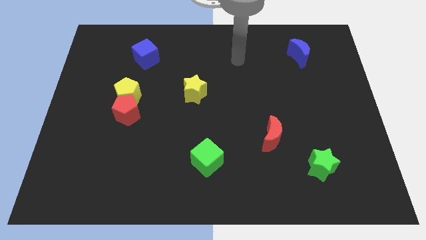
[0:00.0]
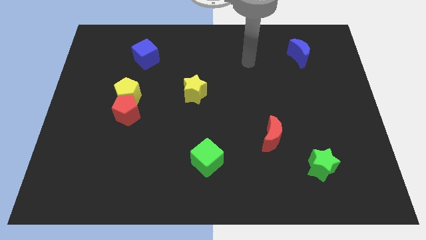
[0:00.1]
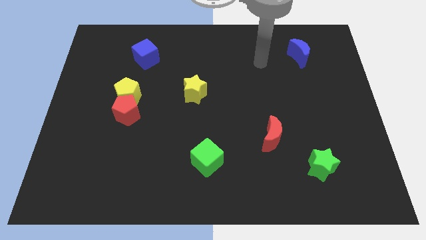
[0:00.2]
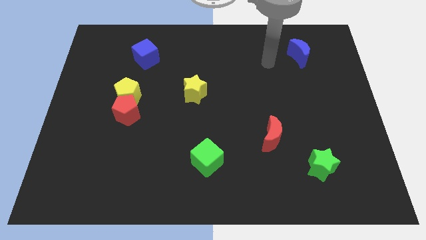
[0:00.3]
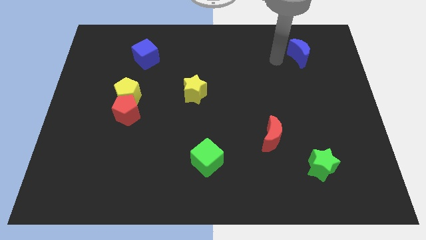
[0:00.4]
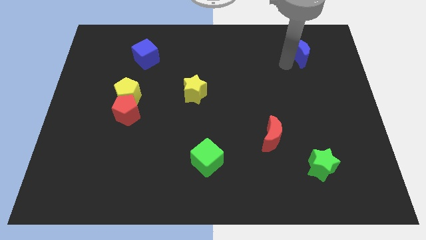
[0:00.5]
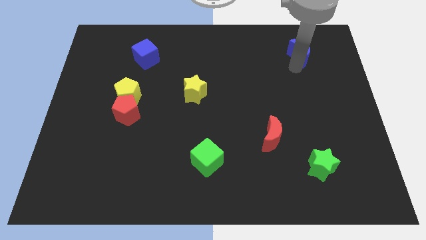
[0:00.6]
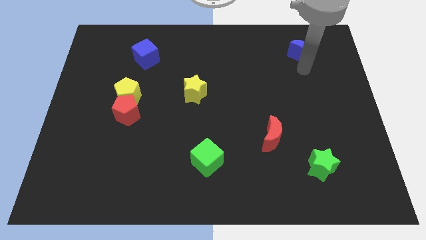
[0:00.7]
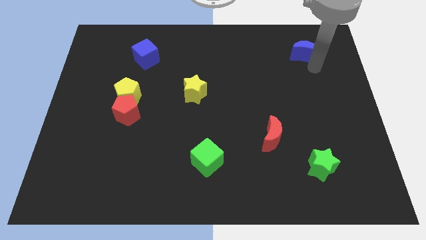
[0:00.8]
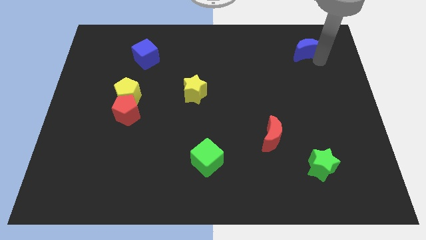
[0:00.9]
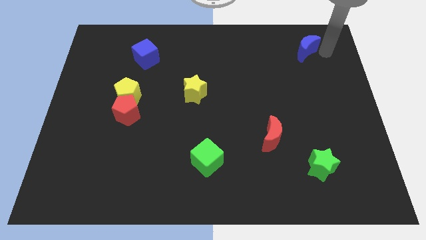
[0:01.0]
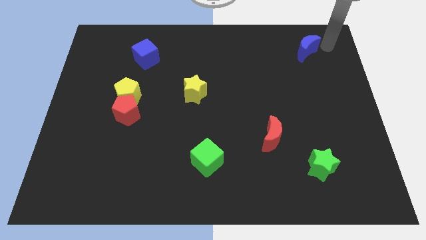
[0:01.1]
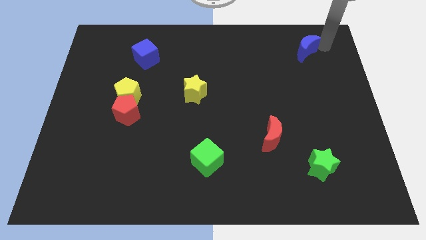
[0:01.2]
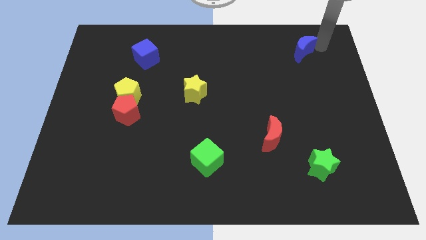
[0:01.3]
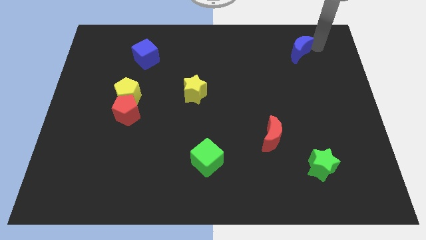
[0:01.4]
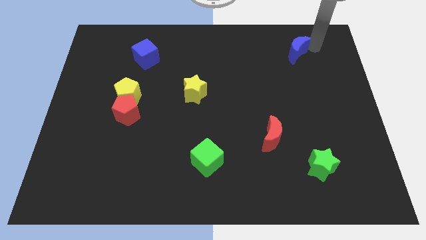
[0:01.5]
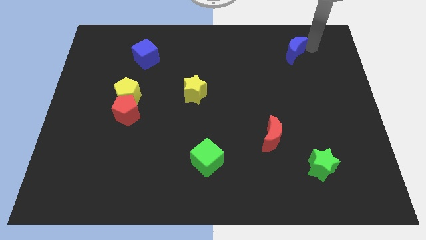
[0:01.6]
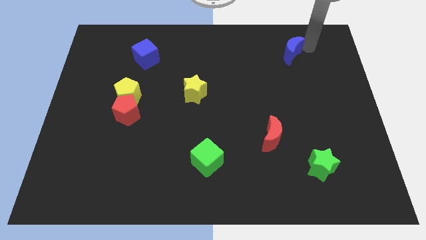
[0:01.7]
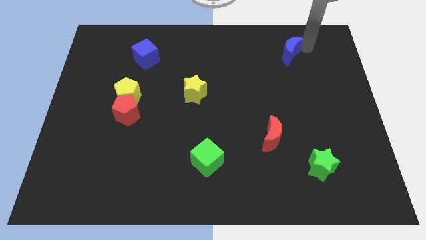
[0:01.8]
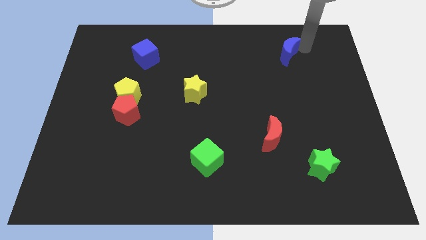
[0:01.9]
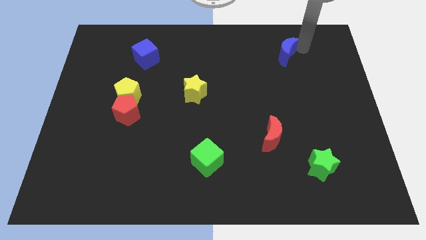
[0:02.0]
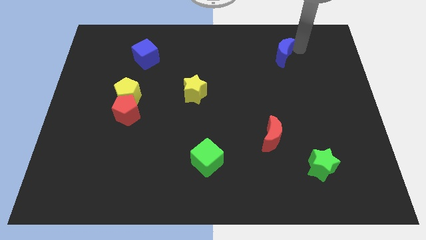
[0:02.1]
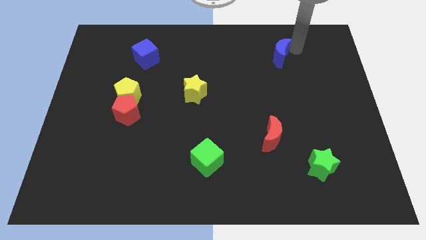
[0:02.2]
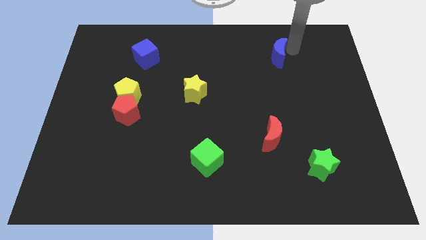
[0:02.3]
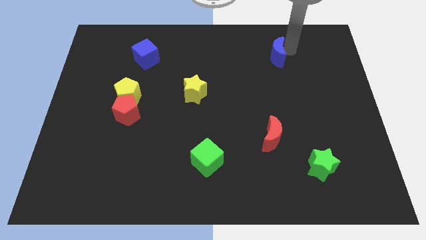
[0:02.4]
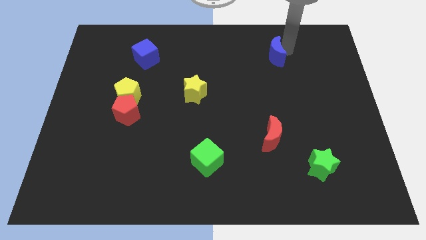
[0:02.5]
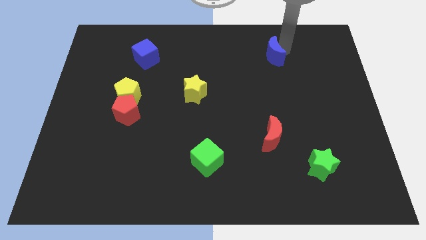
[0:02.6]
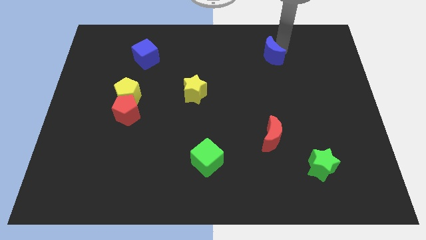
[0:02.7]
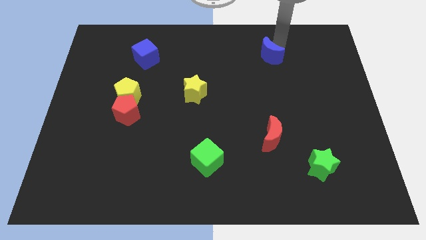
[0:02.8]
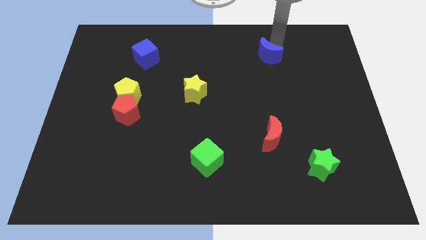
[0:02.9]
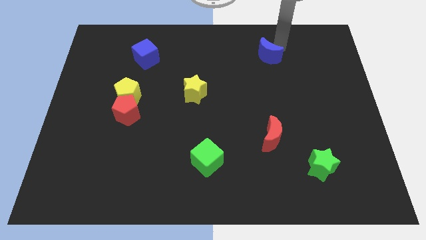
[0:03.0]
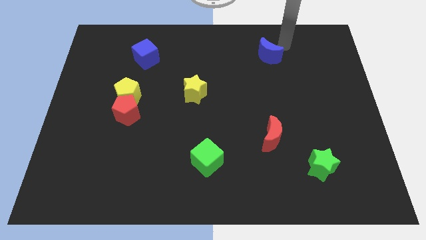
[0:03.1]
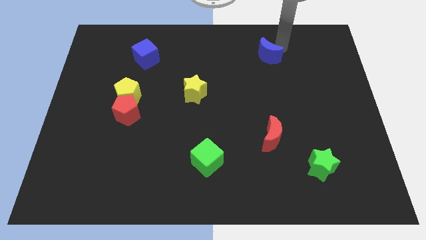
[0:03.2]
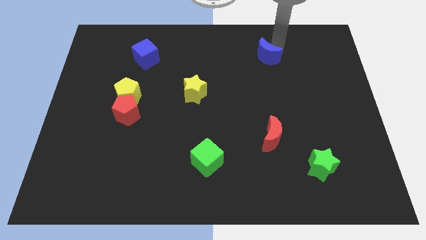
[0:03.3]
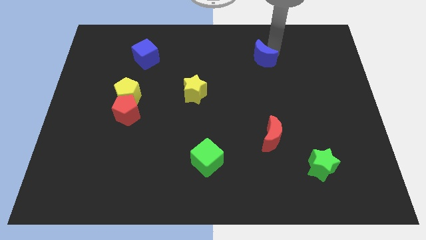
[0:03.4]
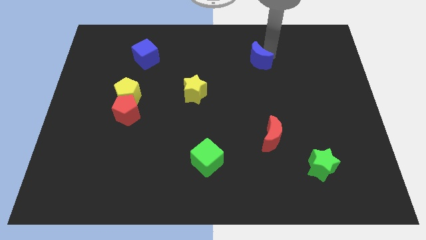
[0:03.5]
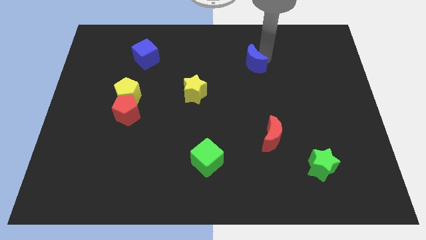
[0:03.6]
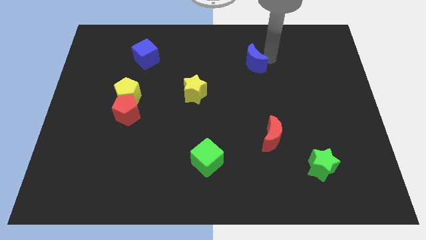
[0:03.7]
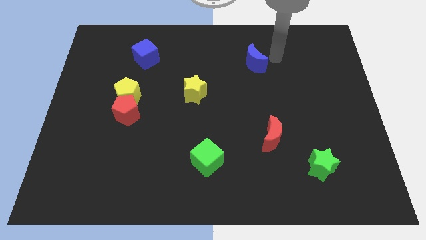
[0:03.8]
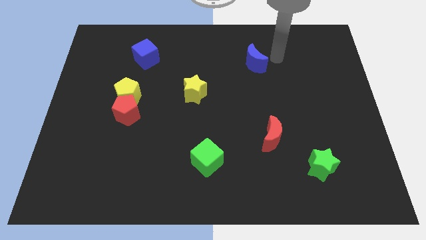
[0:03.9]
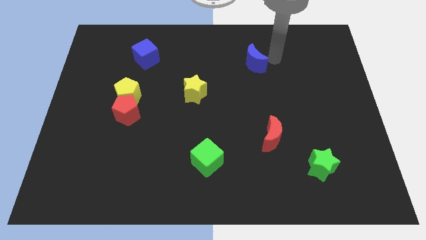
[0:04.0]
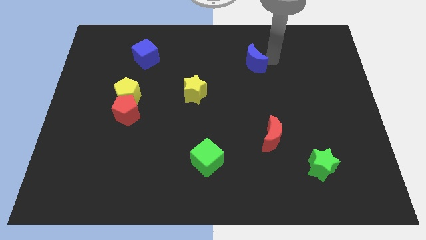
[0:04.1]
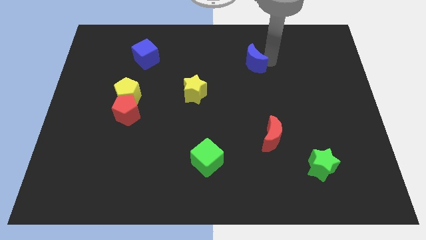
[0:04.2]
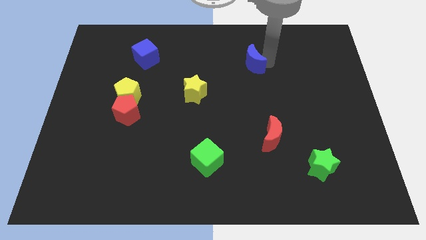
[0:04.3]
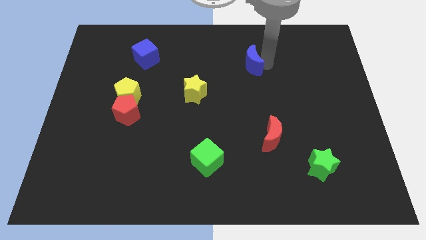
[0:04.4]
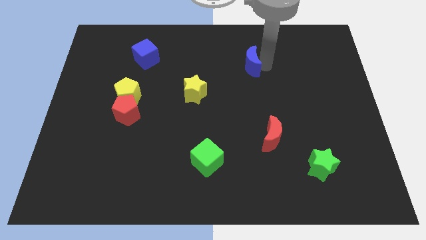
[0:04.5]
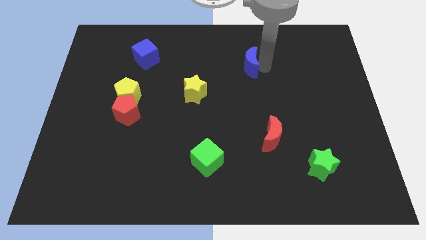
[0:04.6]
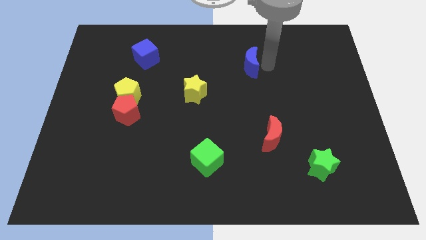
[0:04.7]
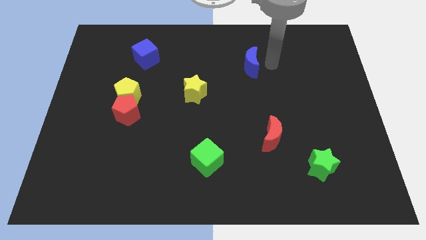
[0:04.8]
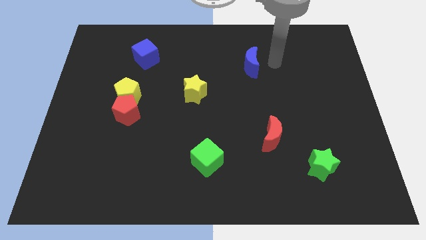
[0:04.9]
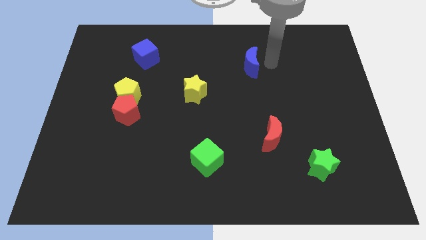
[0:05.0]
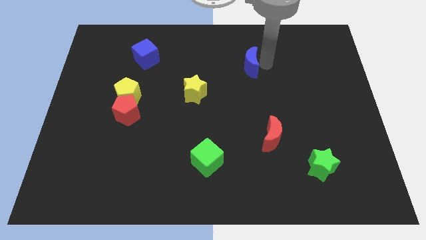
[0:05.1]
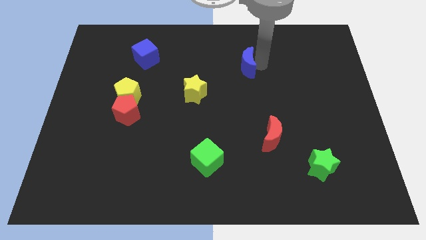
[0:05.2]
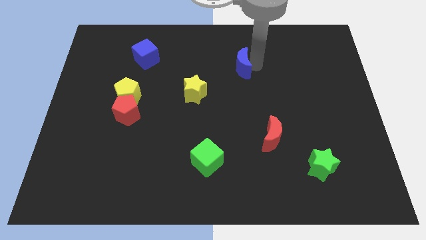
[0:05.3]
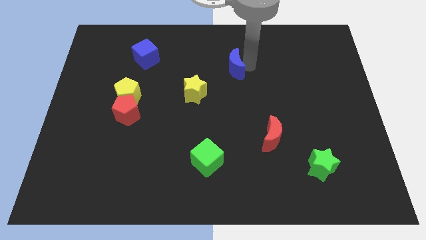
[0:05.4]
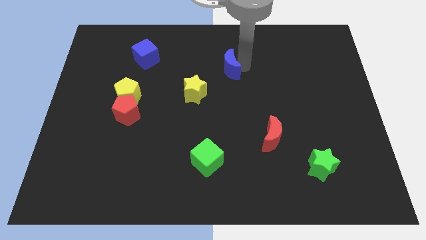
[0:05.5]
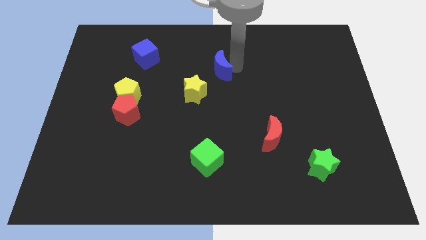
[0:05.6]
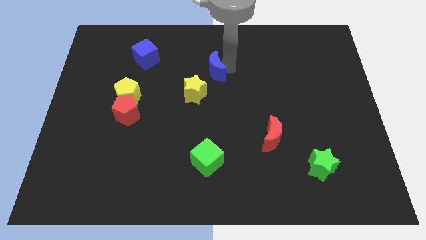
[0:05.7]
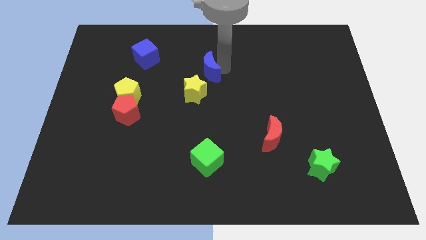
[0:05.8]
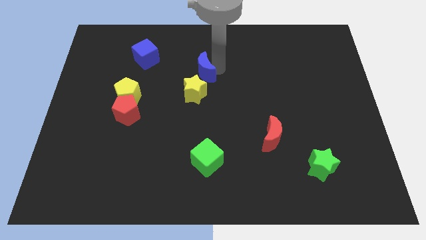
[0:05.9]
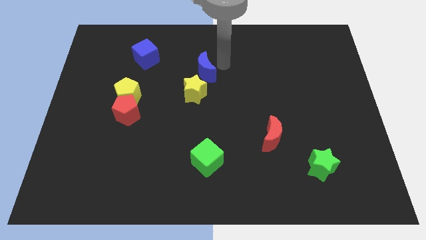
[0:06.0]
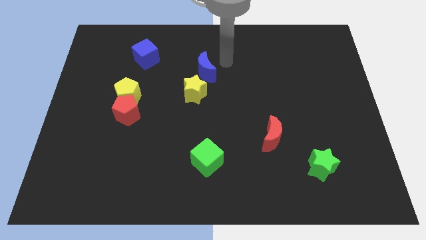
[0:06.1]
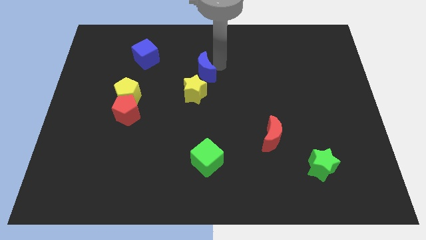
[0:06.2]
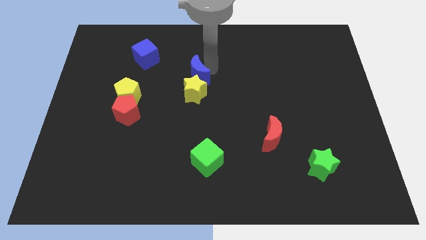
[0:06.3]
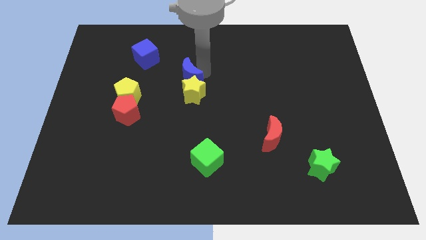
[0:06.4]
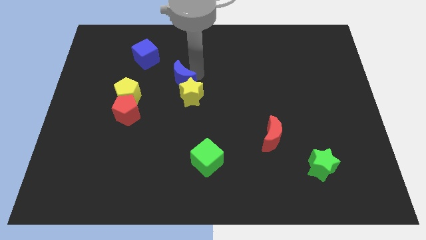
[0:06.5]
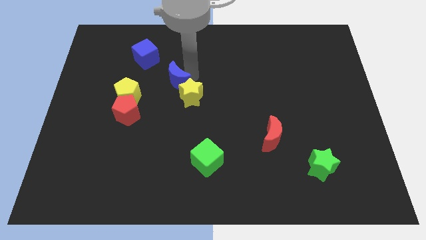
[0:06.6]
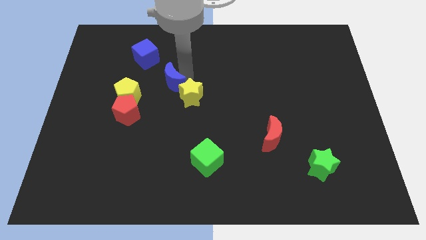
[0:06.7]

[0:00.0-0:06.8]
push the blue moon to the left of the yellow star

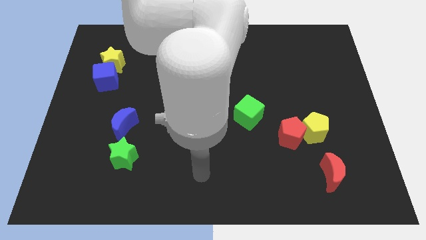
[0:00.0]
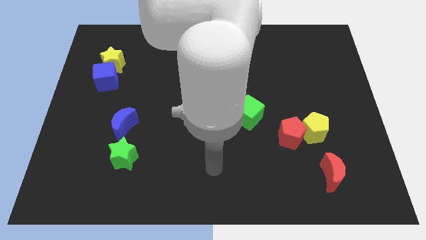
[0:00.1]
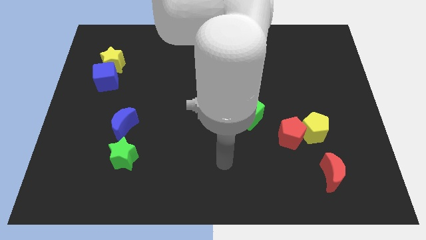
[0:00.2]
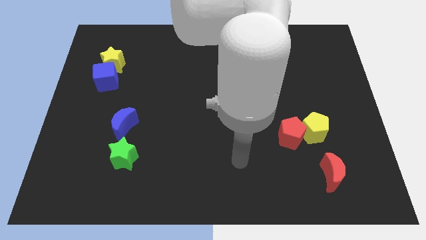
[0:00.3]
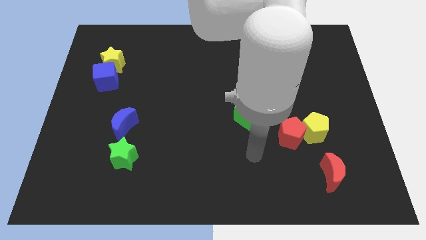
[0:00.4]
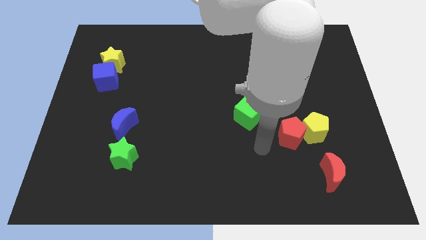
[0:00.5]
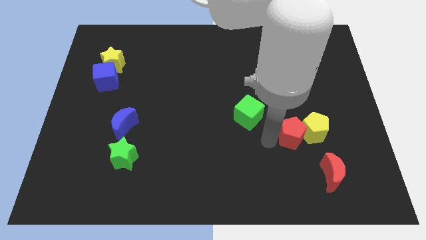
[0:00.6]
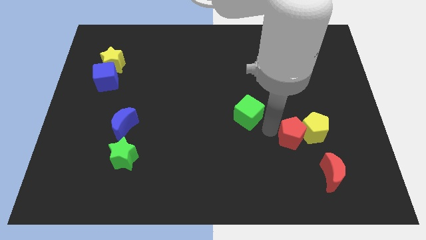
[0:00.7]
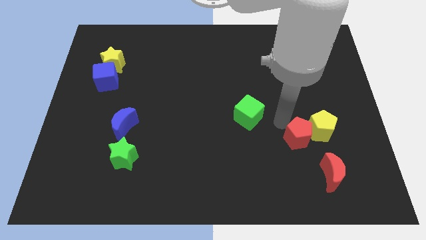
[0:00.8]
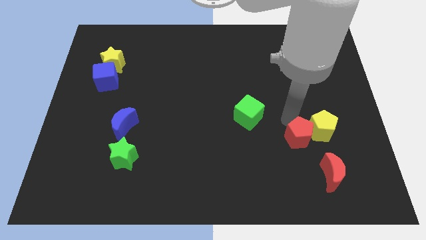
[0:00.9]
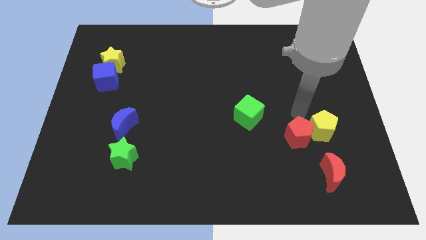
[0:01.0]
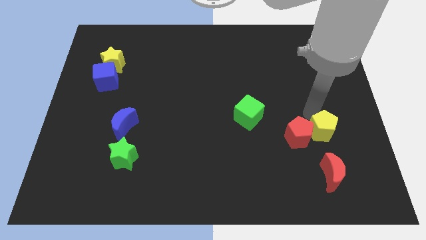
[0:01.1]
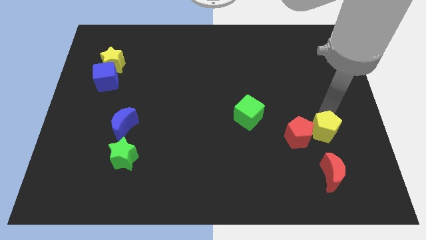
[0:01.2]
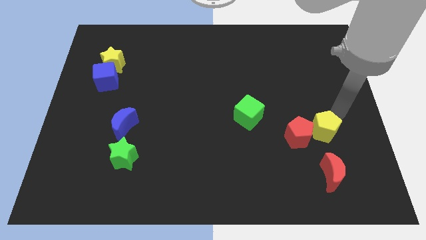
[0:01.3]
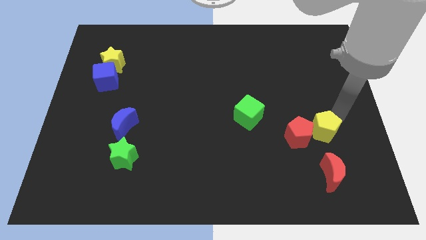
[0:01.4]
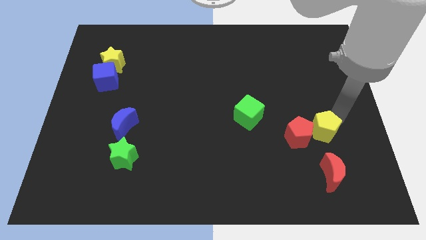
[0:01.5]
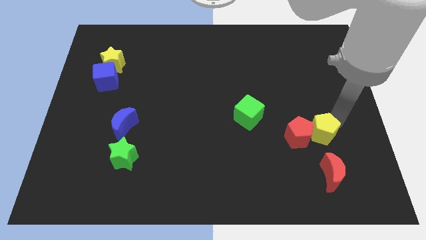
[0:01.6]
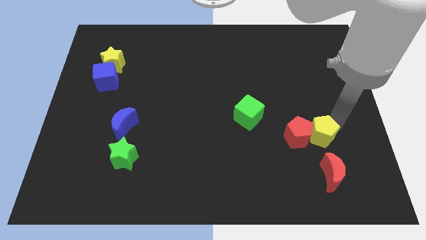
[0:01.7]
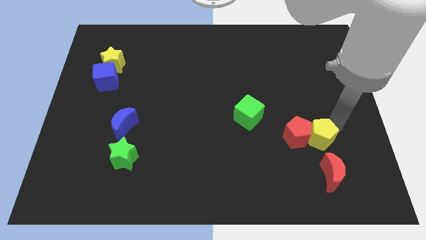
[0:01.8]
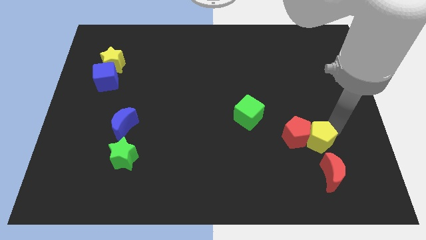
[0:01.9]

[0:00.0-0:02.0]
move the yellow pentagon diagonally up and to the left of the red moon
